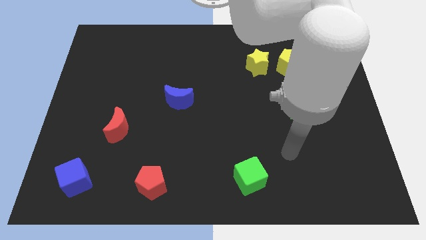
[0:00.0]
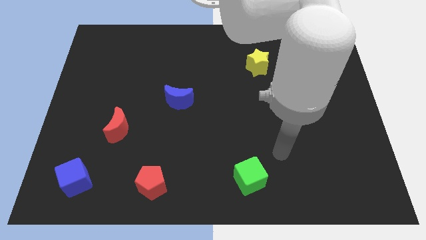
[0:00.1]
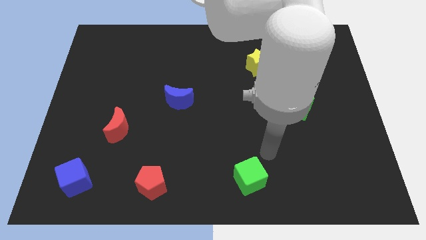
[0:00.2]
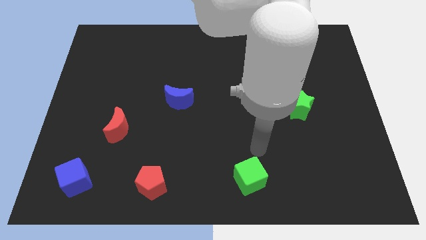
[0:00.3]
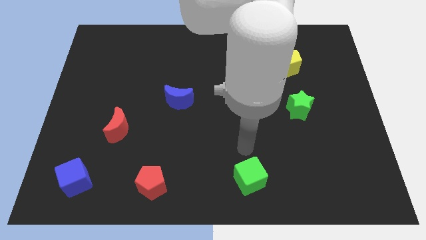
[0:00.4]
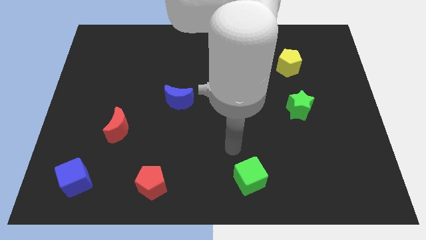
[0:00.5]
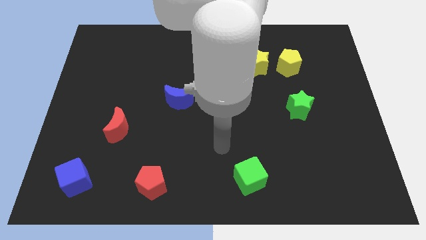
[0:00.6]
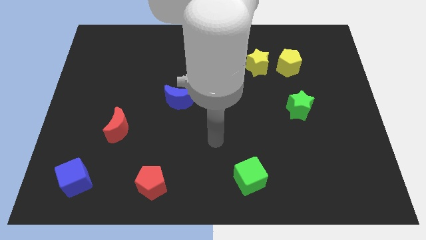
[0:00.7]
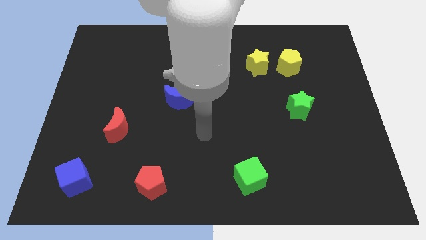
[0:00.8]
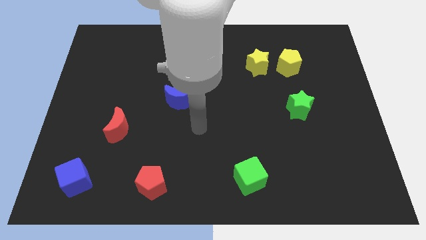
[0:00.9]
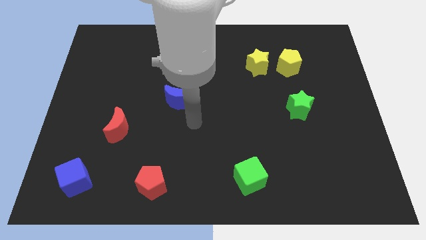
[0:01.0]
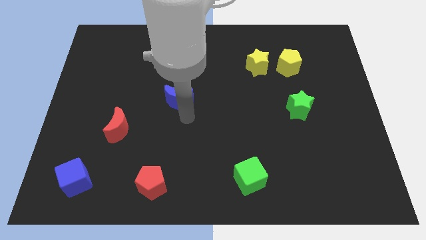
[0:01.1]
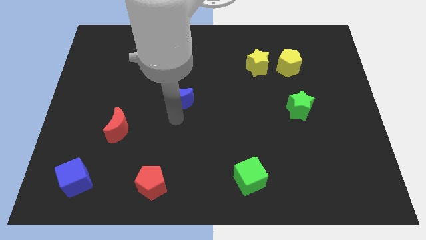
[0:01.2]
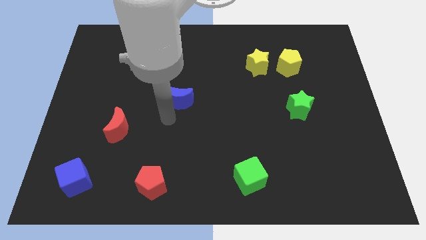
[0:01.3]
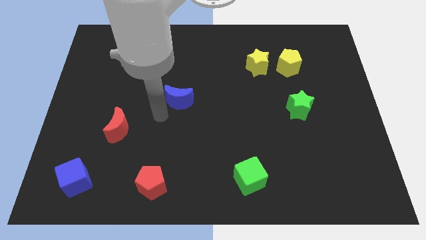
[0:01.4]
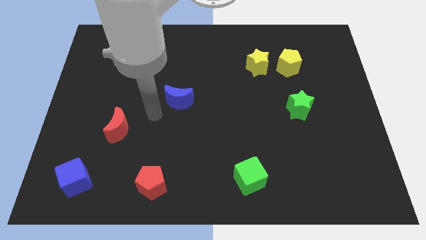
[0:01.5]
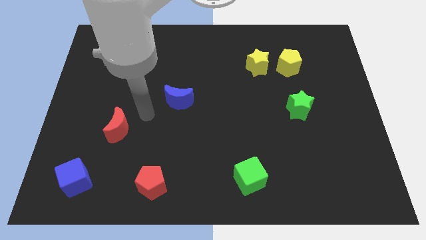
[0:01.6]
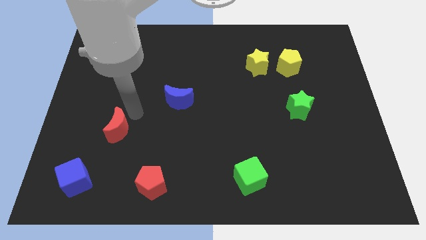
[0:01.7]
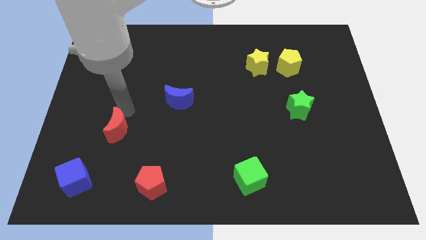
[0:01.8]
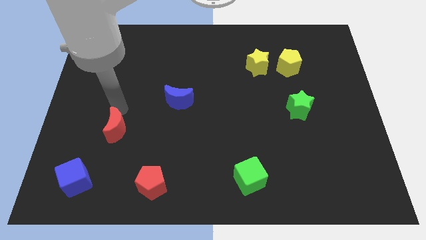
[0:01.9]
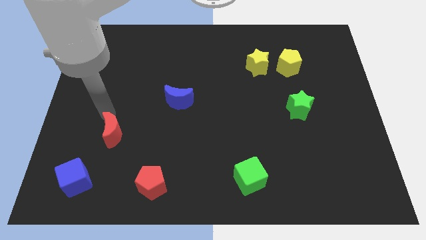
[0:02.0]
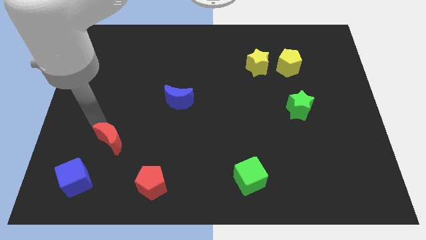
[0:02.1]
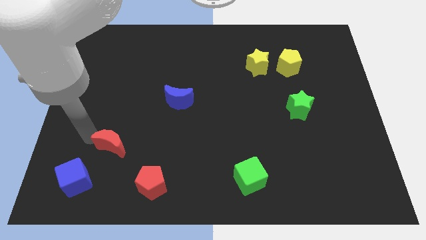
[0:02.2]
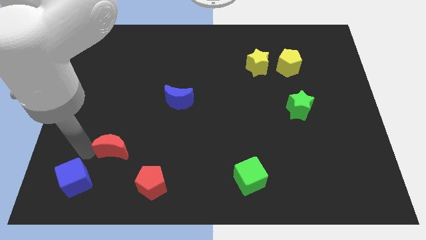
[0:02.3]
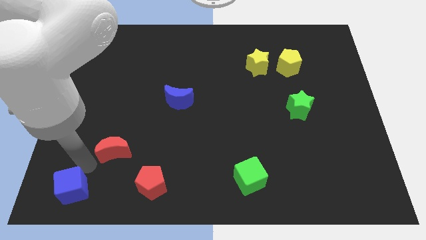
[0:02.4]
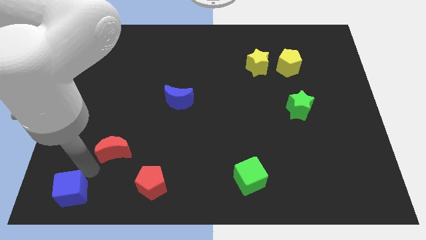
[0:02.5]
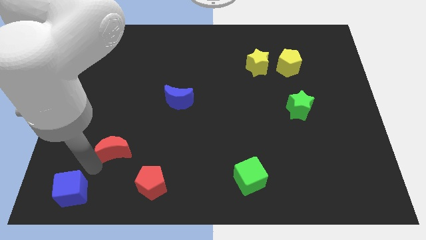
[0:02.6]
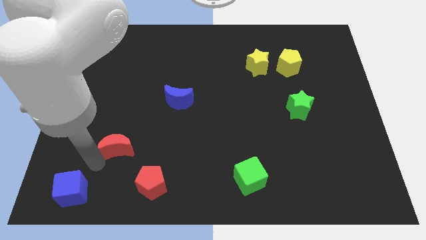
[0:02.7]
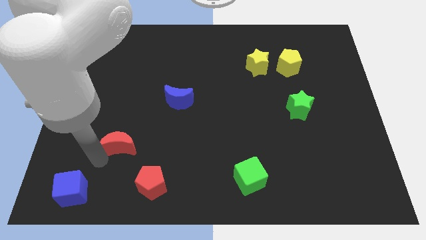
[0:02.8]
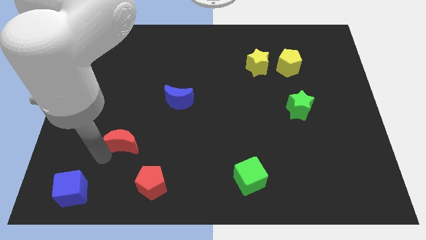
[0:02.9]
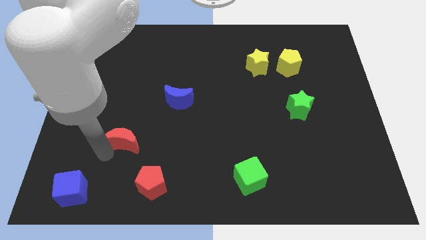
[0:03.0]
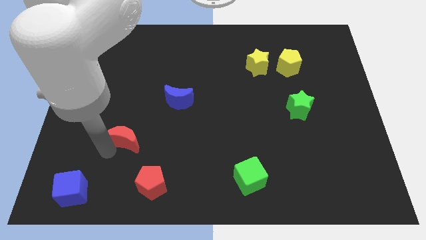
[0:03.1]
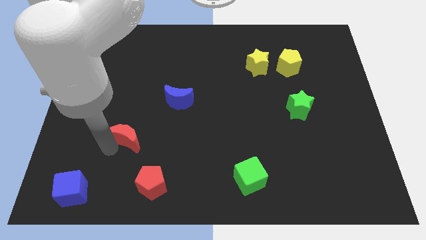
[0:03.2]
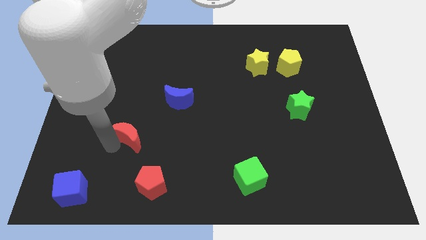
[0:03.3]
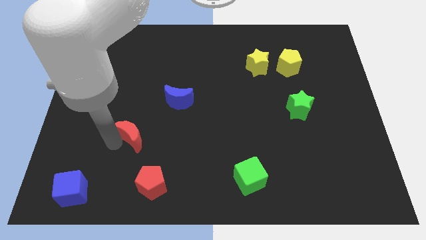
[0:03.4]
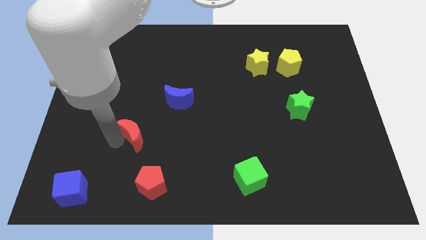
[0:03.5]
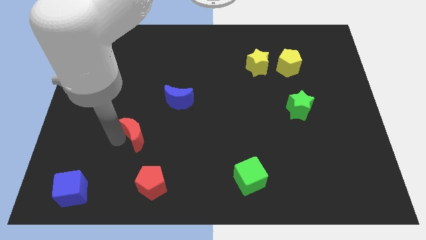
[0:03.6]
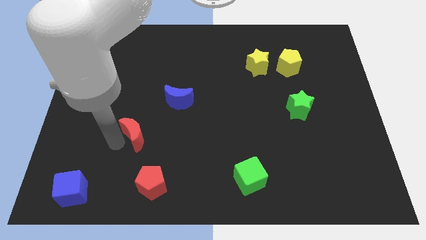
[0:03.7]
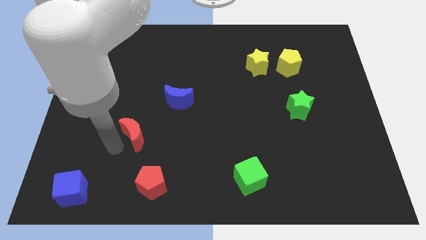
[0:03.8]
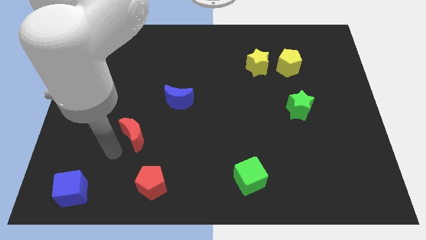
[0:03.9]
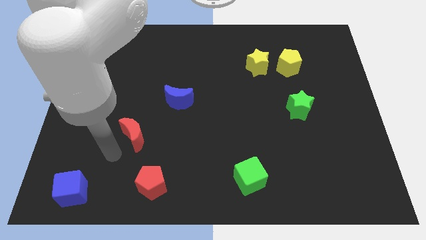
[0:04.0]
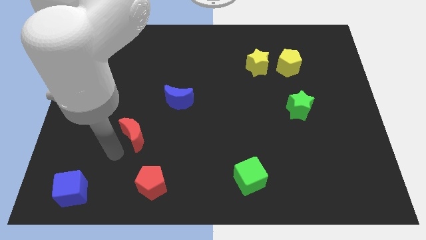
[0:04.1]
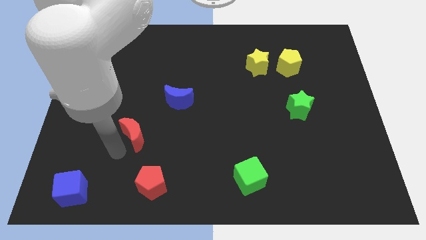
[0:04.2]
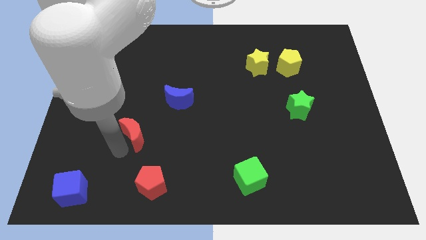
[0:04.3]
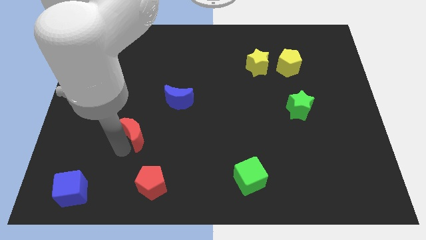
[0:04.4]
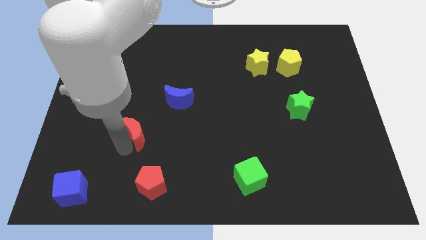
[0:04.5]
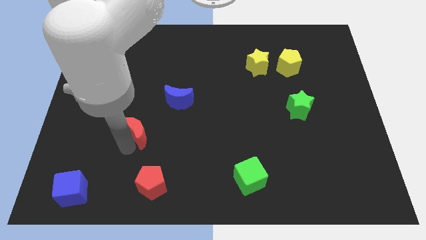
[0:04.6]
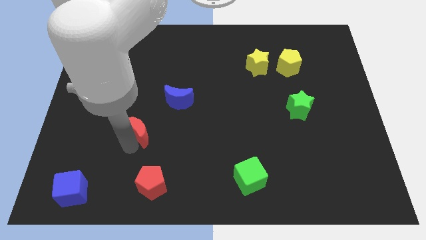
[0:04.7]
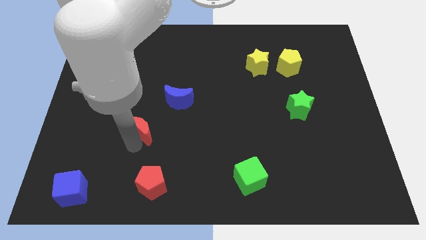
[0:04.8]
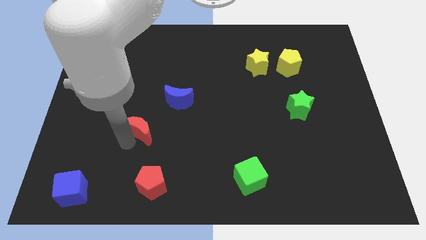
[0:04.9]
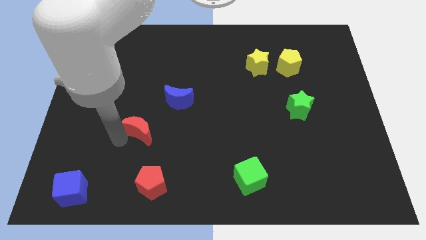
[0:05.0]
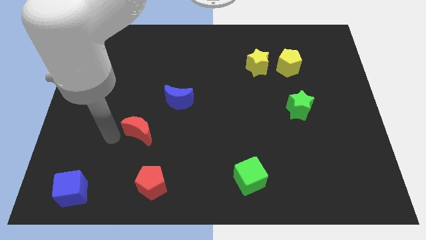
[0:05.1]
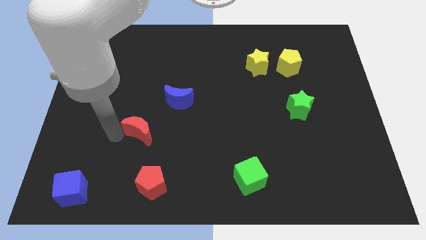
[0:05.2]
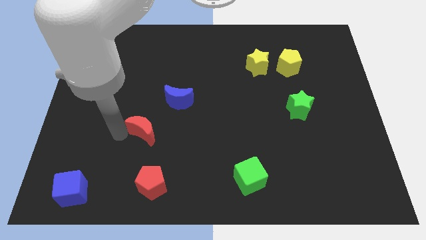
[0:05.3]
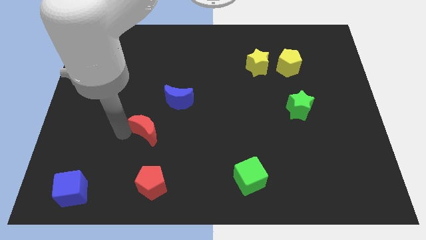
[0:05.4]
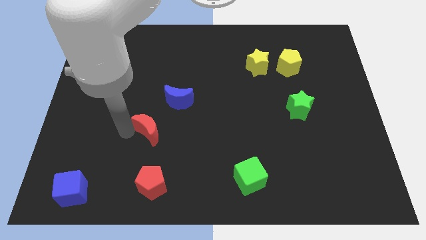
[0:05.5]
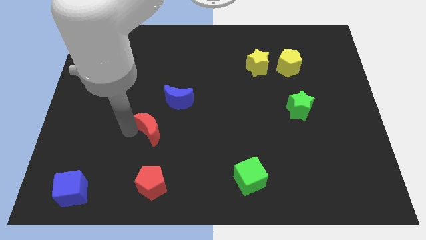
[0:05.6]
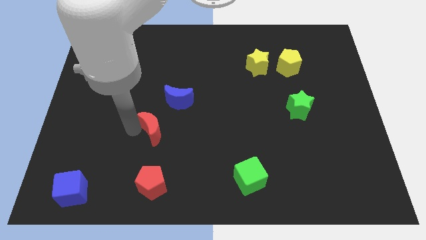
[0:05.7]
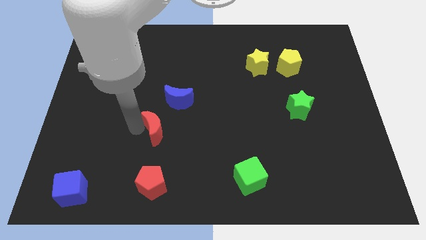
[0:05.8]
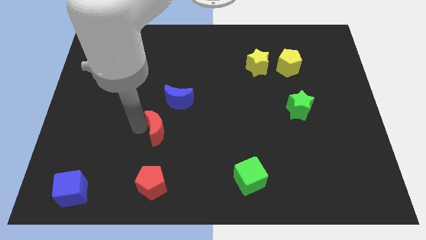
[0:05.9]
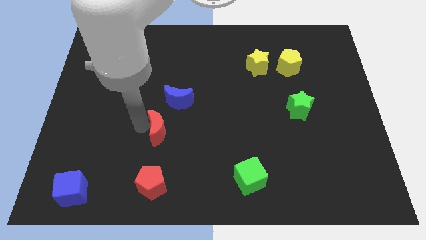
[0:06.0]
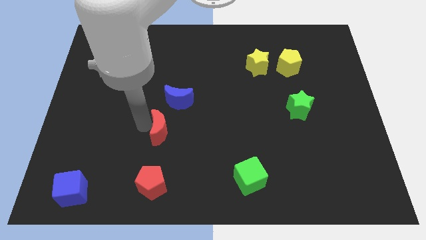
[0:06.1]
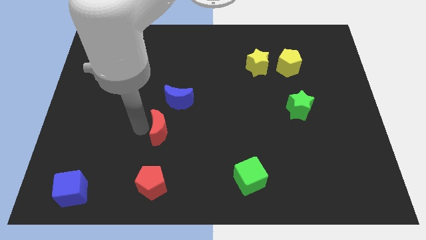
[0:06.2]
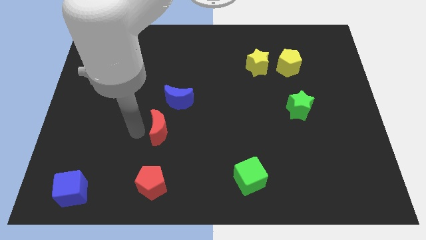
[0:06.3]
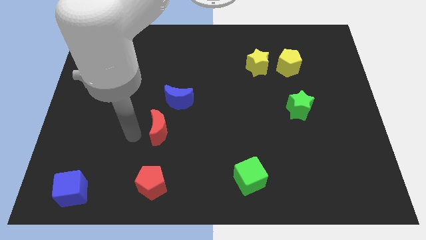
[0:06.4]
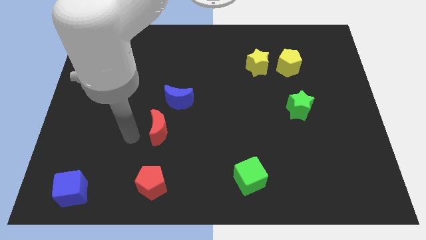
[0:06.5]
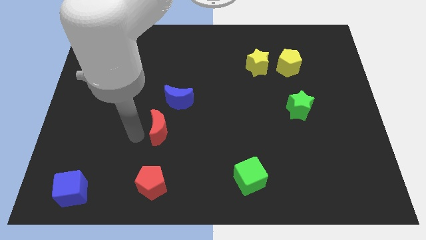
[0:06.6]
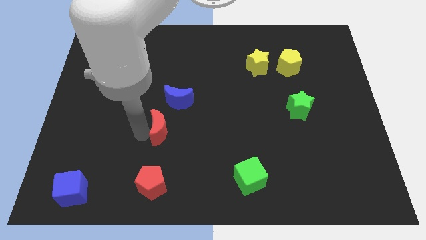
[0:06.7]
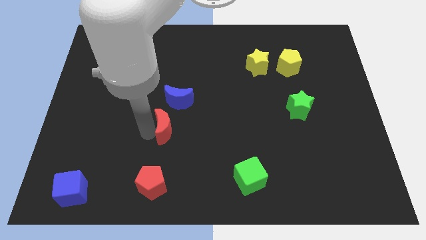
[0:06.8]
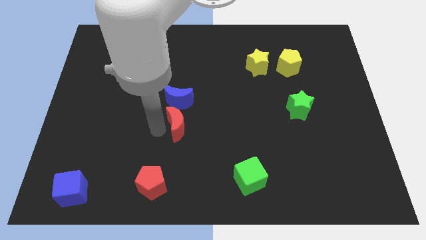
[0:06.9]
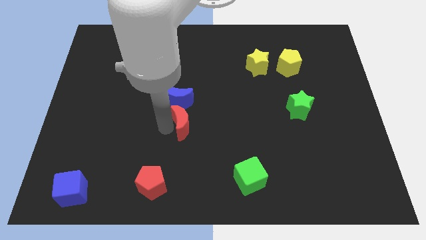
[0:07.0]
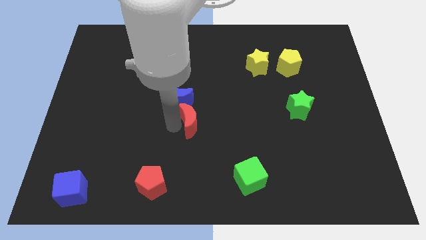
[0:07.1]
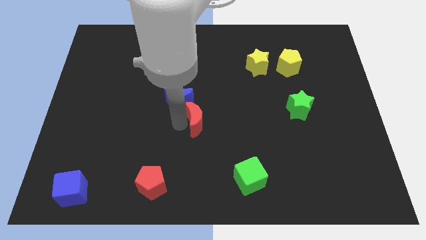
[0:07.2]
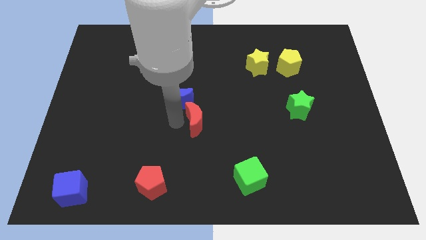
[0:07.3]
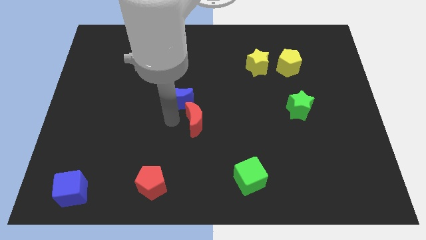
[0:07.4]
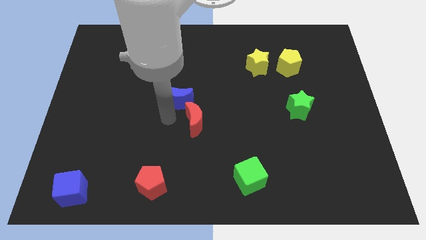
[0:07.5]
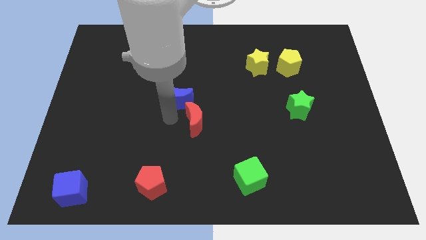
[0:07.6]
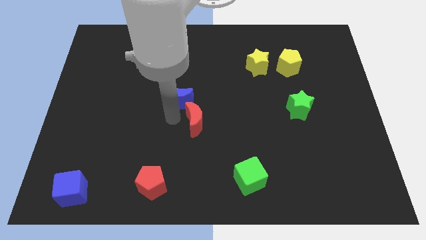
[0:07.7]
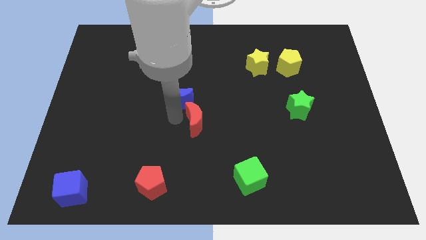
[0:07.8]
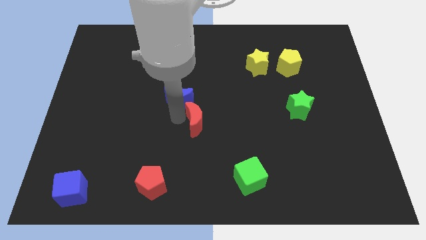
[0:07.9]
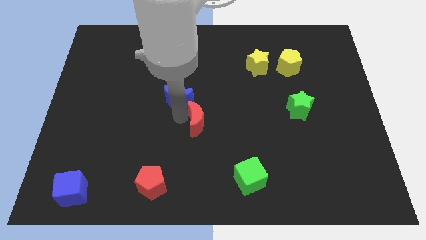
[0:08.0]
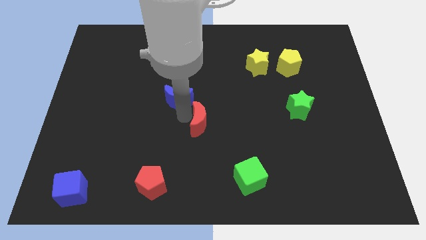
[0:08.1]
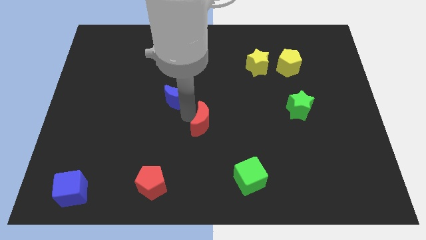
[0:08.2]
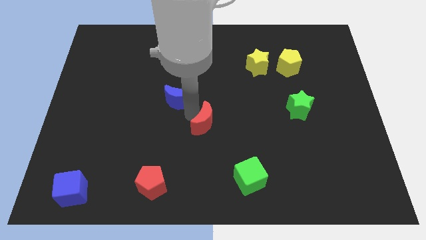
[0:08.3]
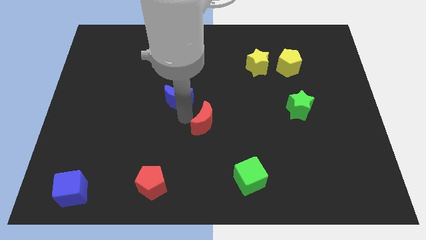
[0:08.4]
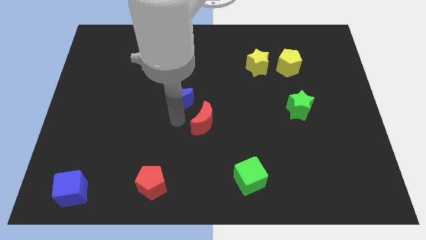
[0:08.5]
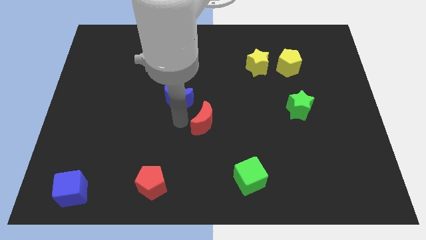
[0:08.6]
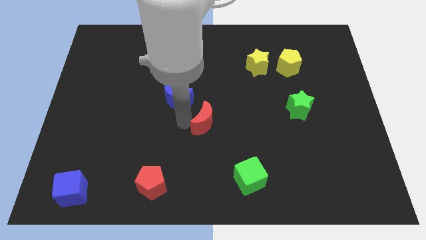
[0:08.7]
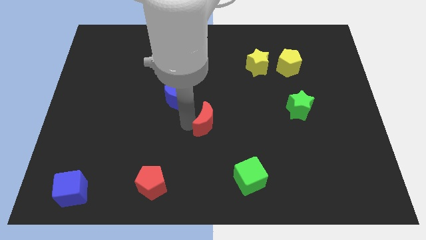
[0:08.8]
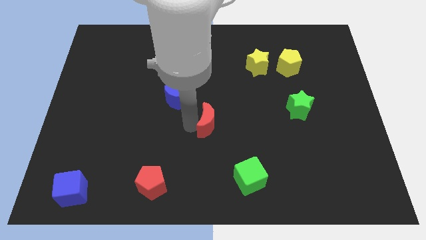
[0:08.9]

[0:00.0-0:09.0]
push the red moon right
